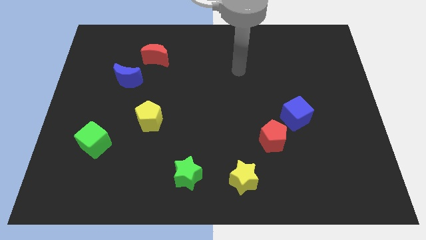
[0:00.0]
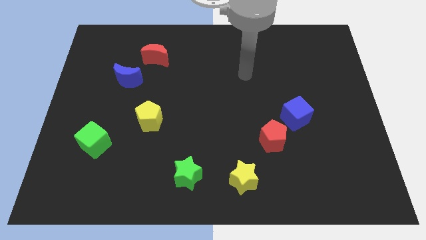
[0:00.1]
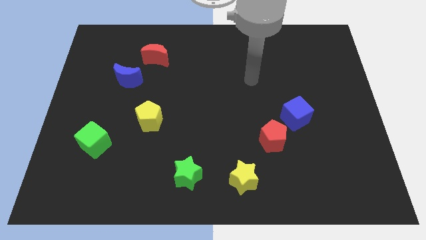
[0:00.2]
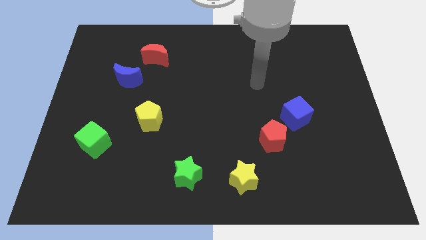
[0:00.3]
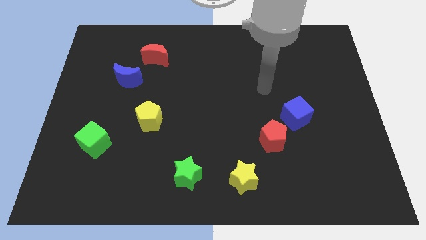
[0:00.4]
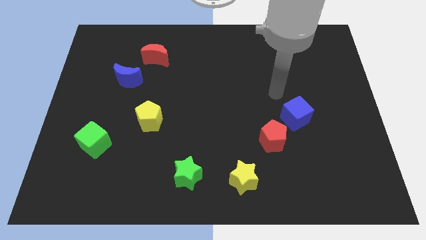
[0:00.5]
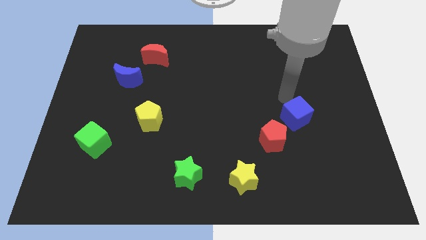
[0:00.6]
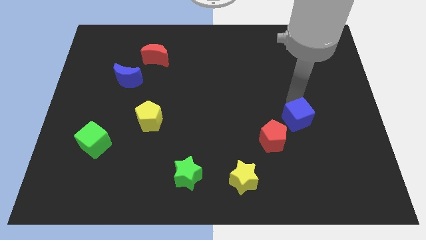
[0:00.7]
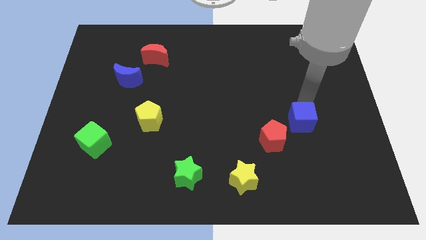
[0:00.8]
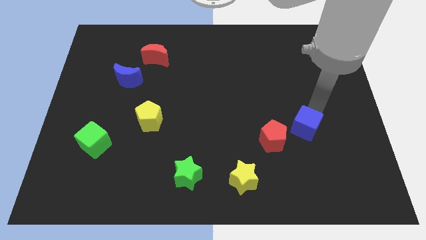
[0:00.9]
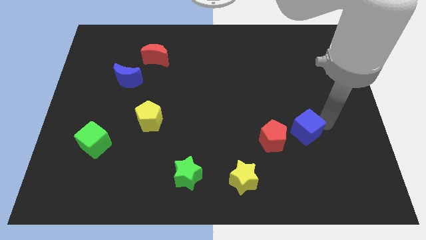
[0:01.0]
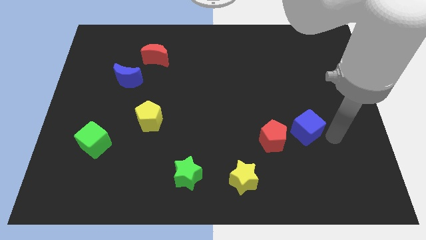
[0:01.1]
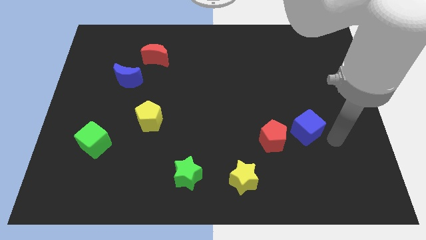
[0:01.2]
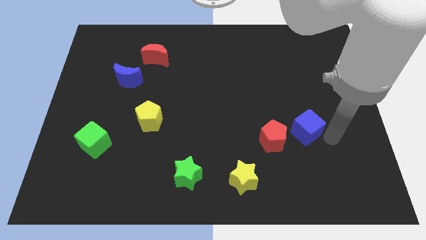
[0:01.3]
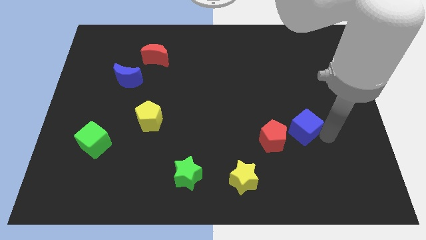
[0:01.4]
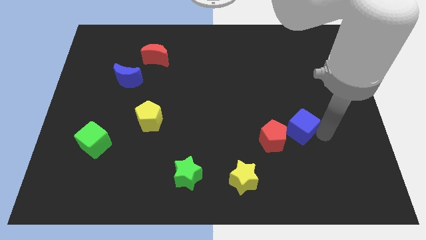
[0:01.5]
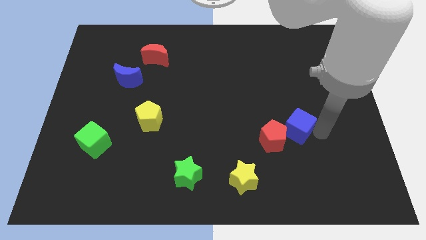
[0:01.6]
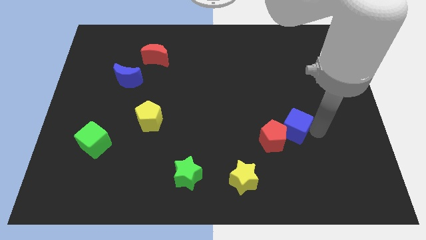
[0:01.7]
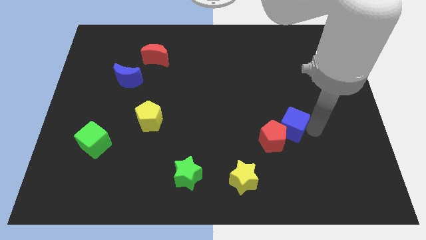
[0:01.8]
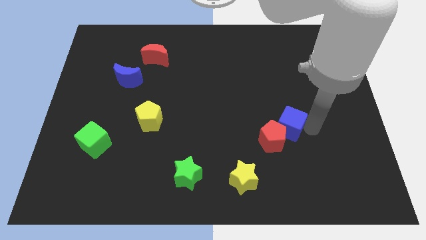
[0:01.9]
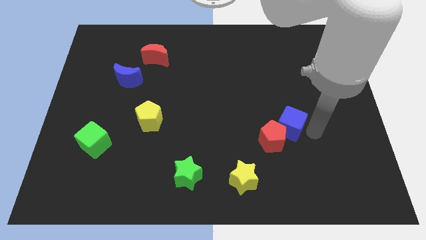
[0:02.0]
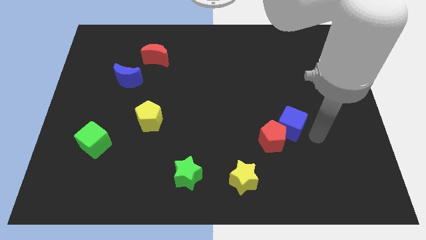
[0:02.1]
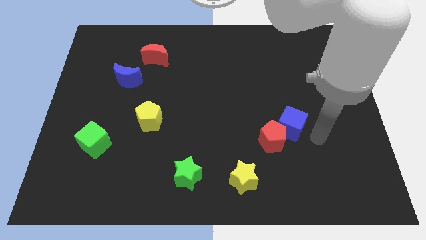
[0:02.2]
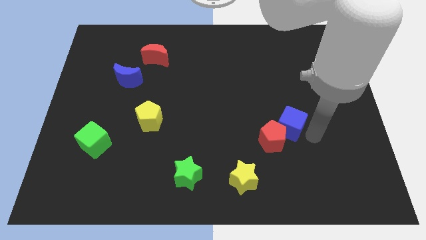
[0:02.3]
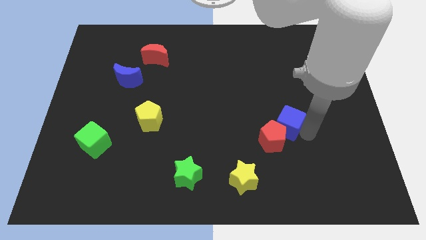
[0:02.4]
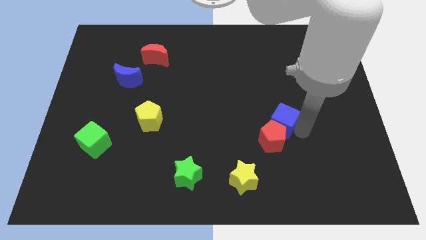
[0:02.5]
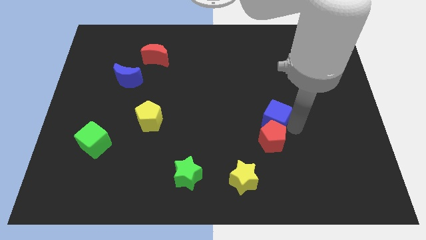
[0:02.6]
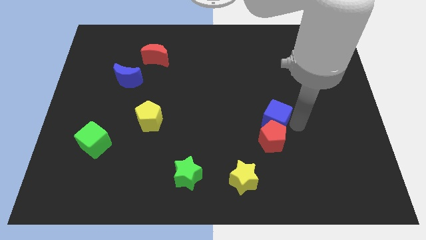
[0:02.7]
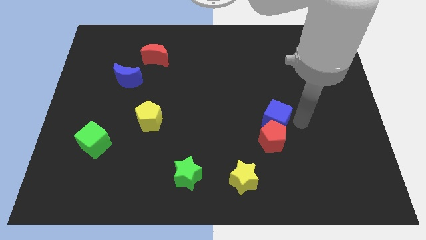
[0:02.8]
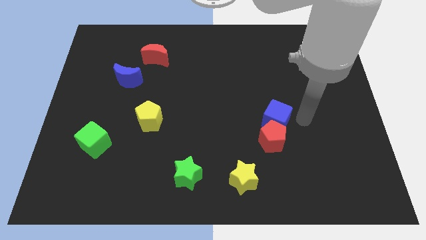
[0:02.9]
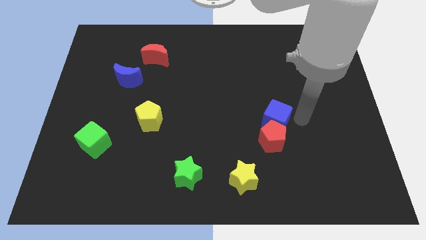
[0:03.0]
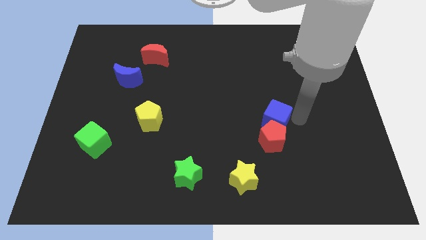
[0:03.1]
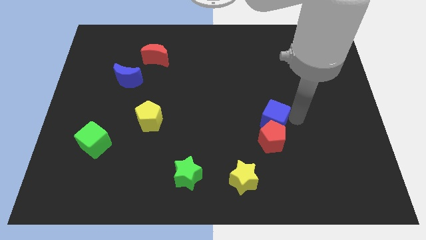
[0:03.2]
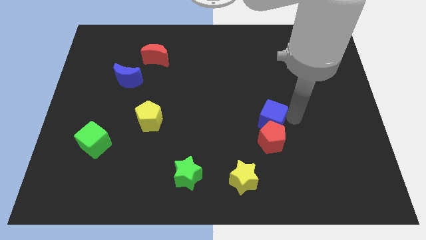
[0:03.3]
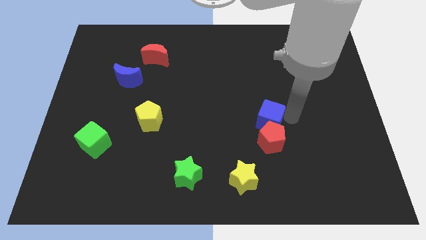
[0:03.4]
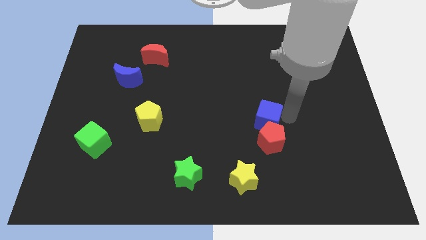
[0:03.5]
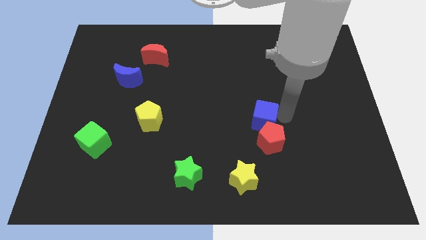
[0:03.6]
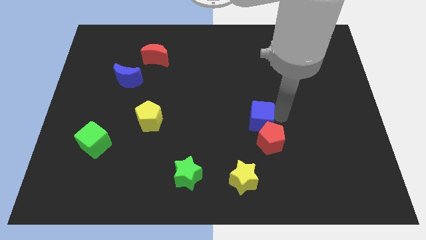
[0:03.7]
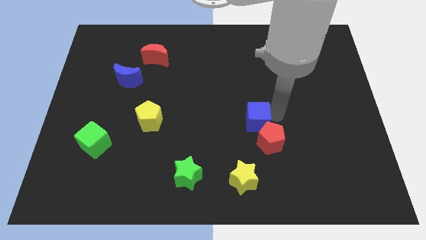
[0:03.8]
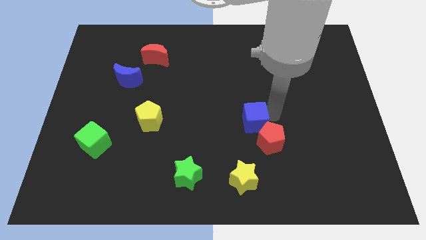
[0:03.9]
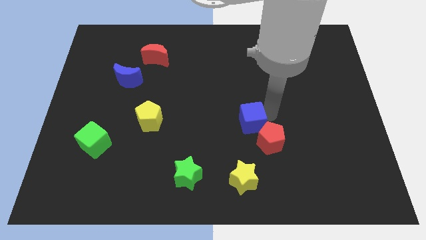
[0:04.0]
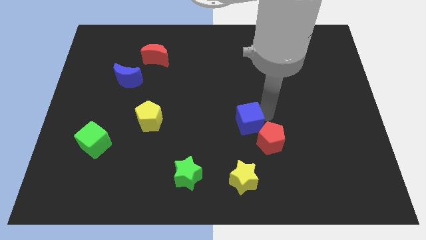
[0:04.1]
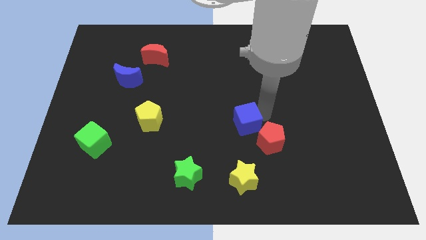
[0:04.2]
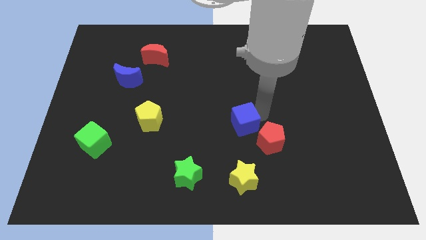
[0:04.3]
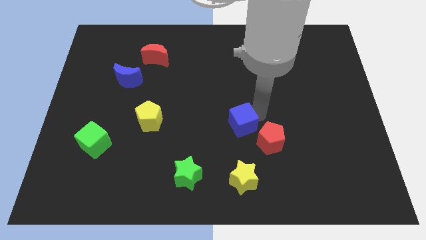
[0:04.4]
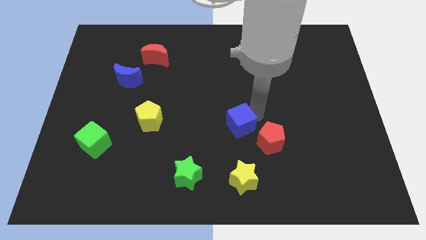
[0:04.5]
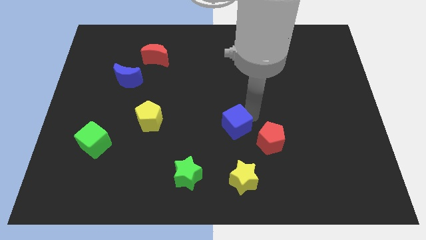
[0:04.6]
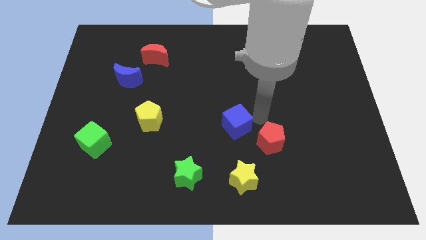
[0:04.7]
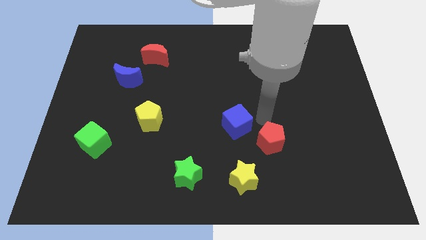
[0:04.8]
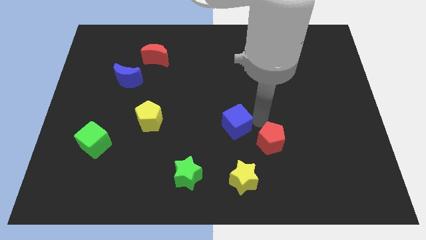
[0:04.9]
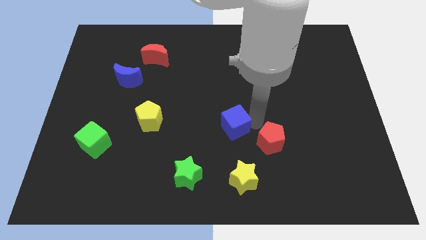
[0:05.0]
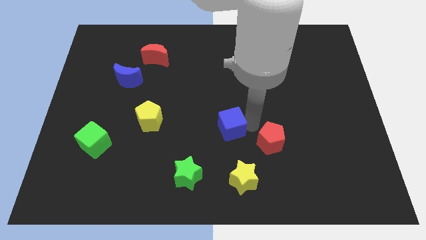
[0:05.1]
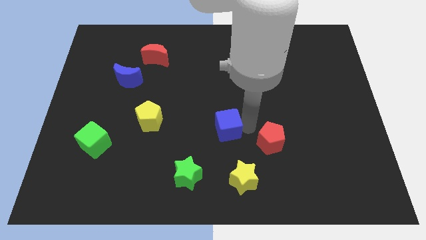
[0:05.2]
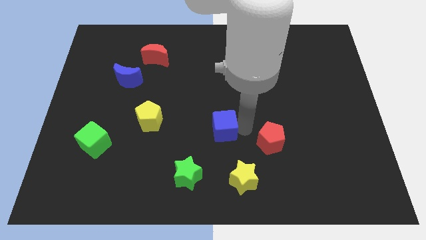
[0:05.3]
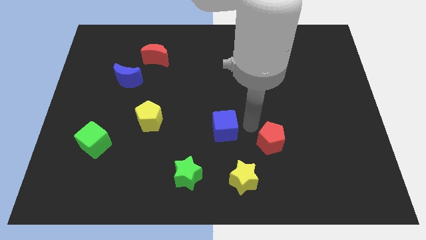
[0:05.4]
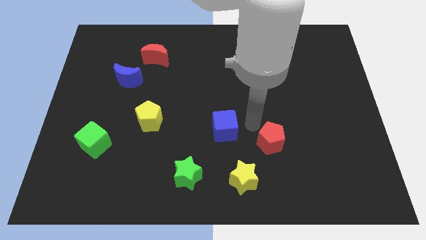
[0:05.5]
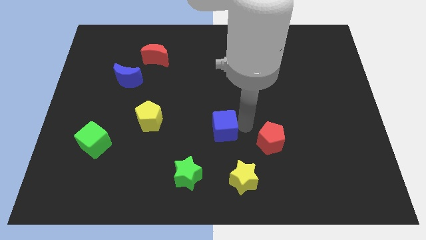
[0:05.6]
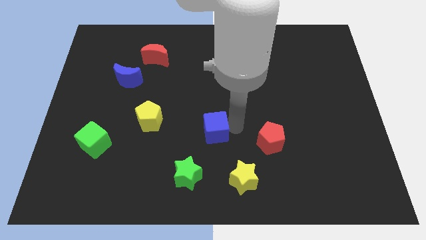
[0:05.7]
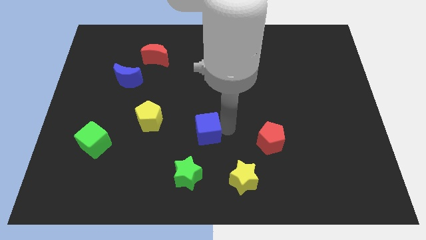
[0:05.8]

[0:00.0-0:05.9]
slide the blue cube to the top side of the green star

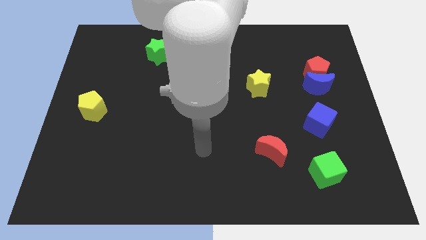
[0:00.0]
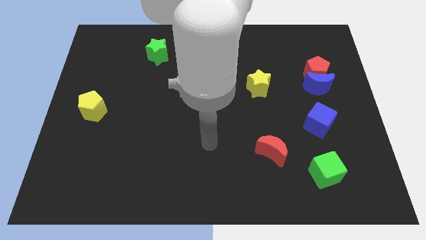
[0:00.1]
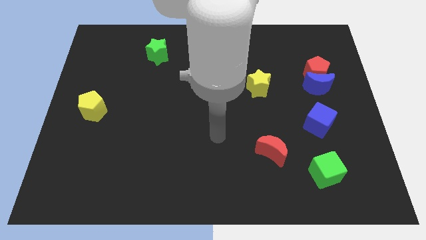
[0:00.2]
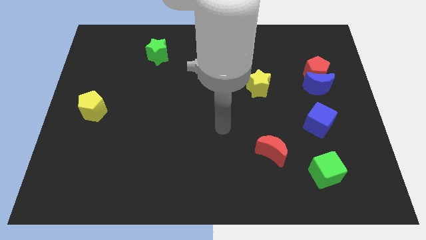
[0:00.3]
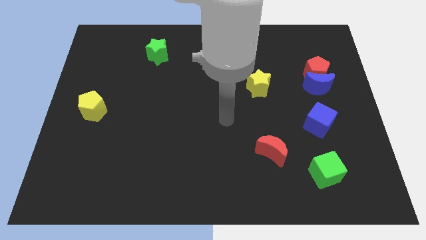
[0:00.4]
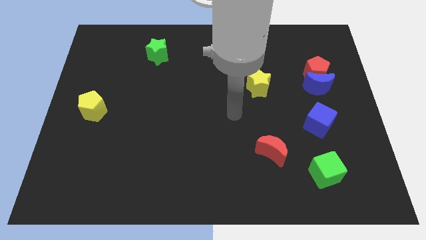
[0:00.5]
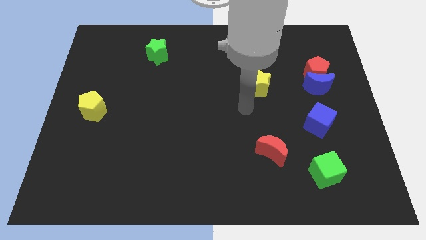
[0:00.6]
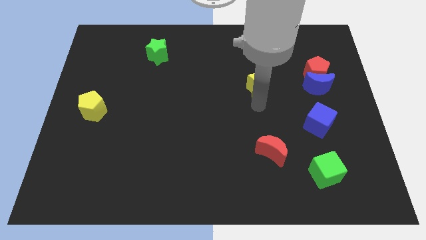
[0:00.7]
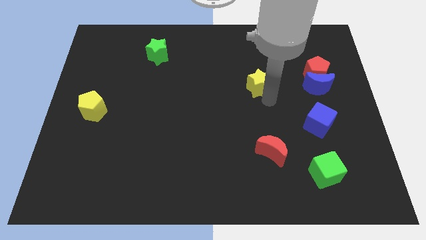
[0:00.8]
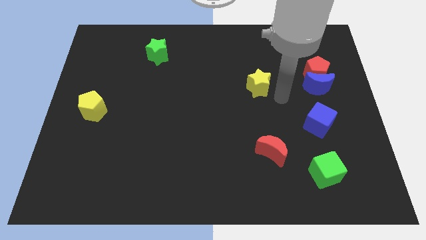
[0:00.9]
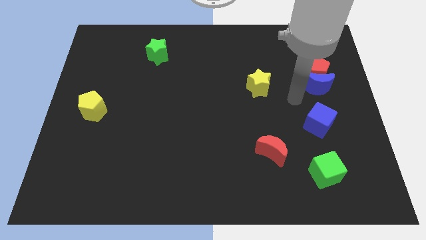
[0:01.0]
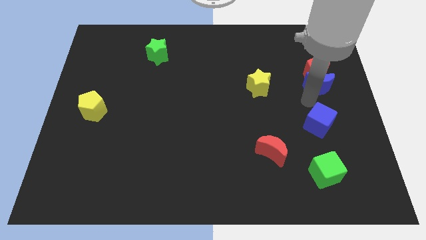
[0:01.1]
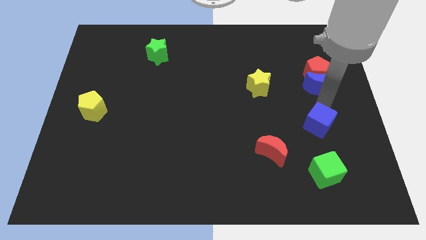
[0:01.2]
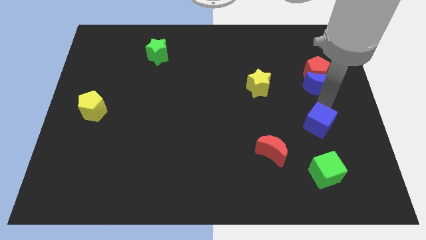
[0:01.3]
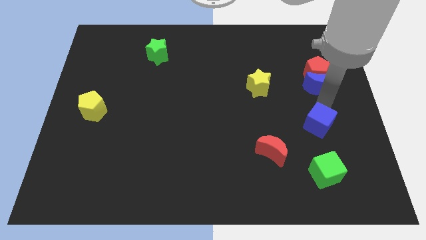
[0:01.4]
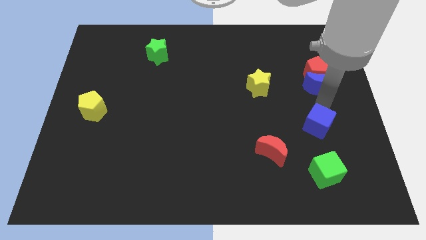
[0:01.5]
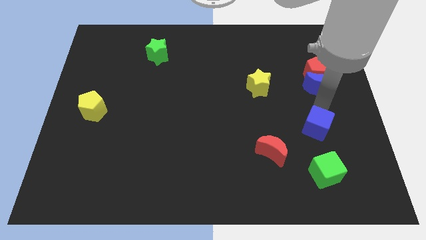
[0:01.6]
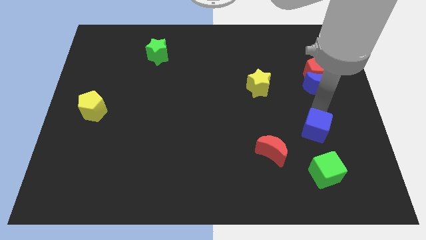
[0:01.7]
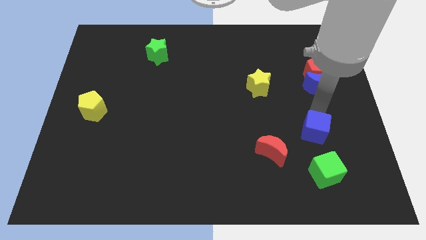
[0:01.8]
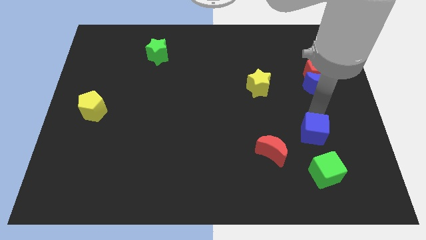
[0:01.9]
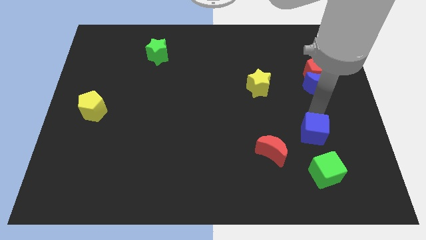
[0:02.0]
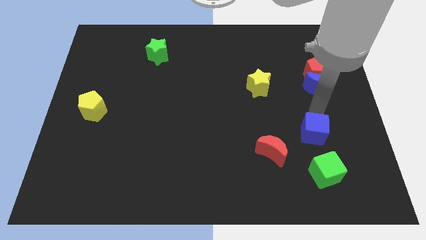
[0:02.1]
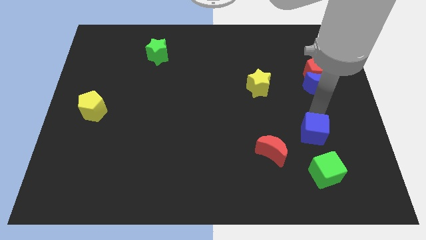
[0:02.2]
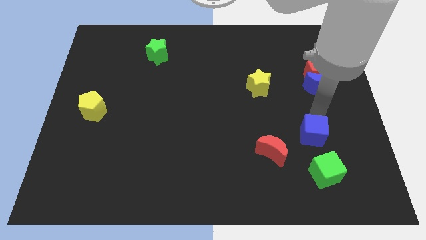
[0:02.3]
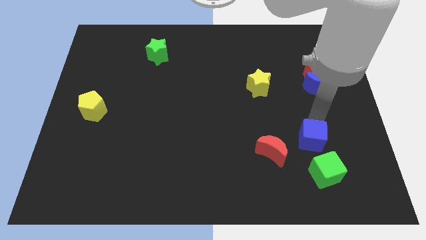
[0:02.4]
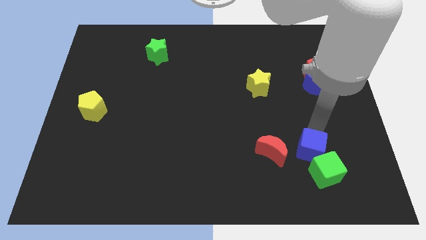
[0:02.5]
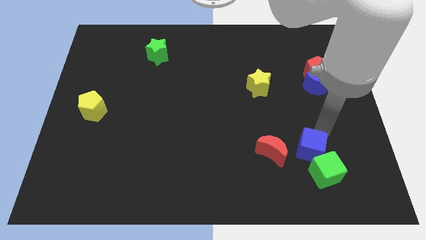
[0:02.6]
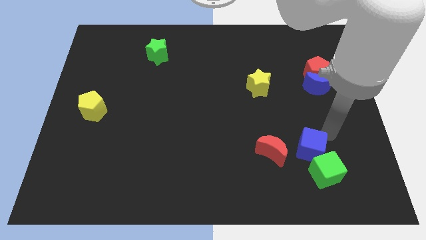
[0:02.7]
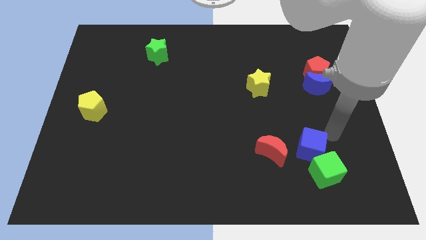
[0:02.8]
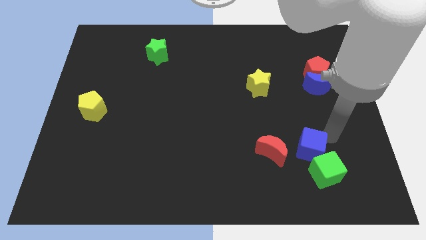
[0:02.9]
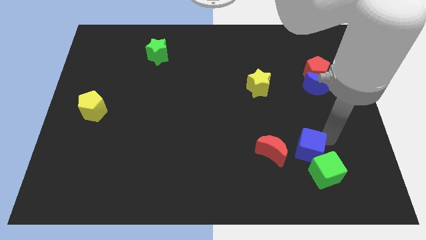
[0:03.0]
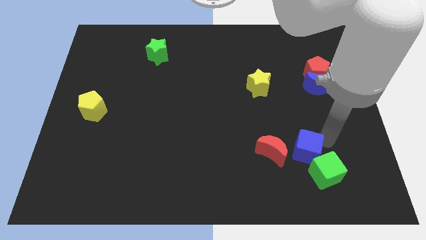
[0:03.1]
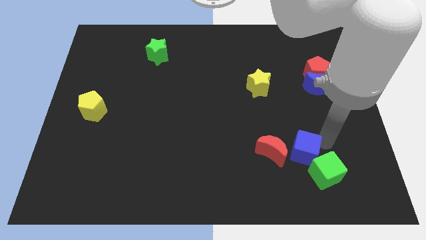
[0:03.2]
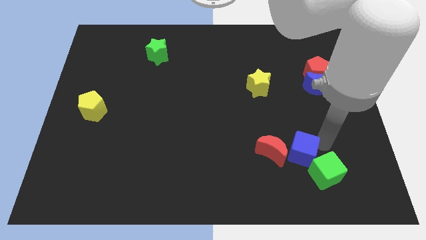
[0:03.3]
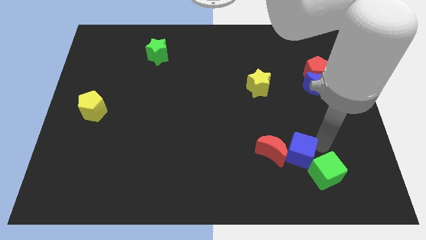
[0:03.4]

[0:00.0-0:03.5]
slide the blue cube to the left of the green cube
